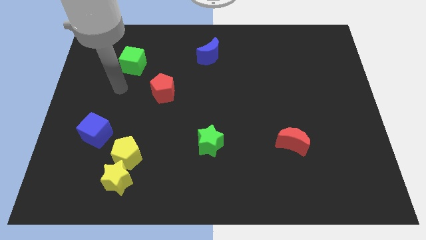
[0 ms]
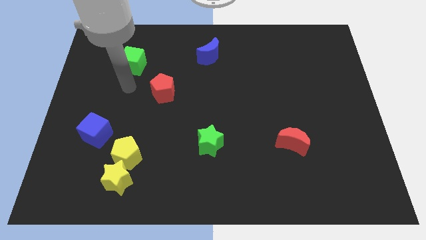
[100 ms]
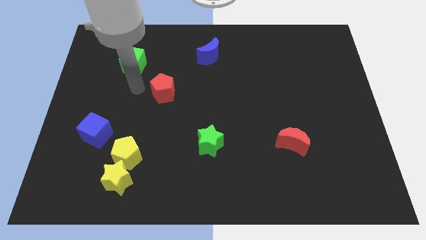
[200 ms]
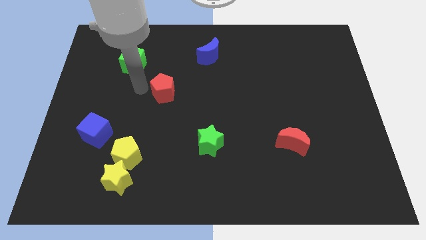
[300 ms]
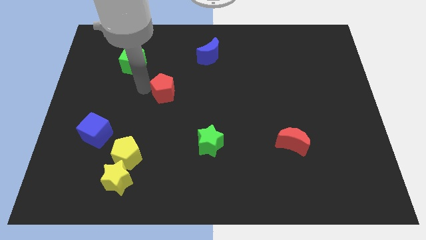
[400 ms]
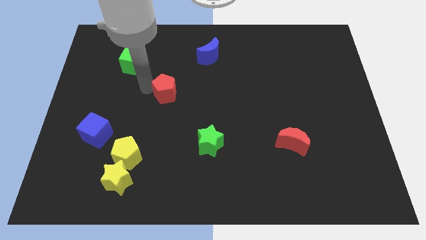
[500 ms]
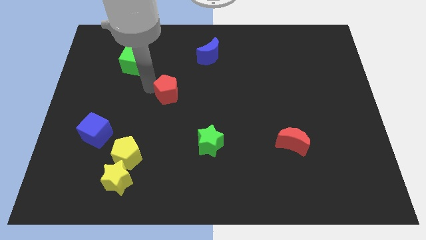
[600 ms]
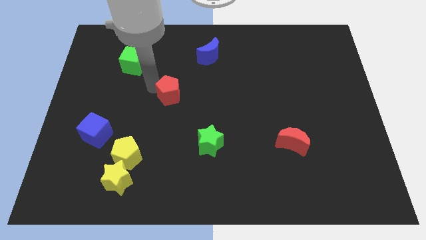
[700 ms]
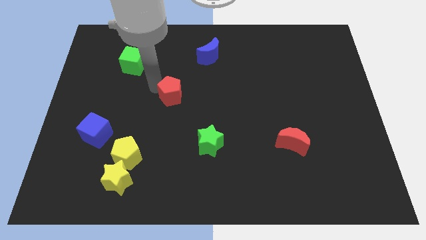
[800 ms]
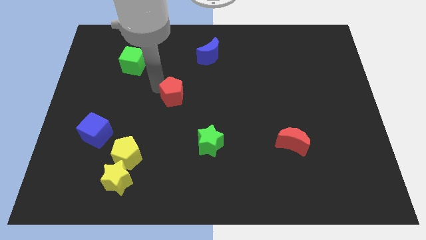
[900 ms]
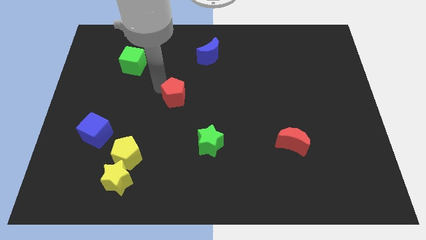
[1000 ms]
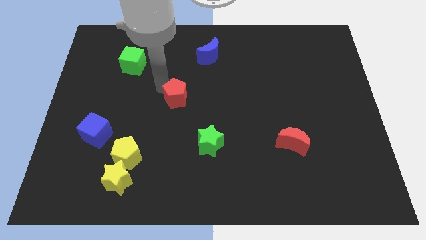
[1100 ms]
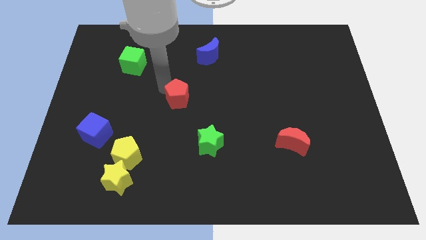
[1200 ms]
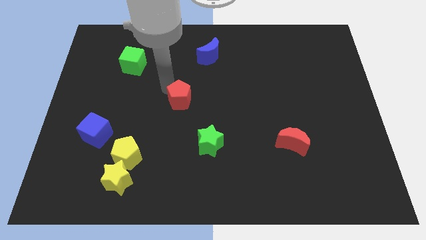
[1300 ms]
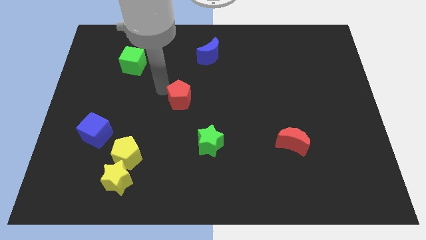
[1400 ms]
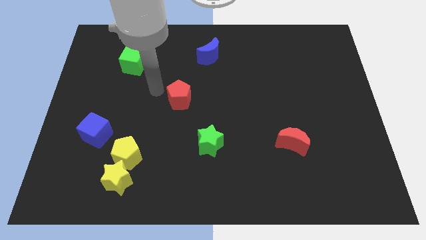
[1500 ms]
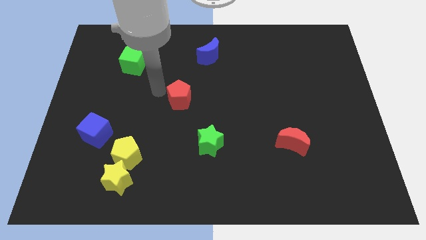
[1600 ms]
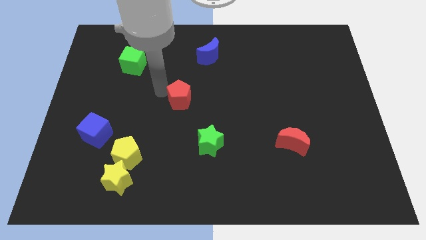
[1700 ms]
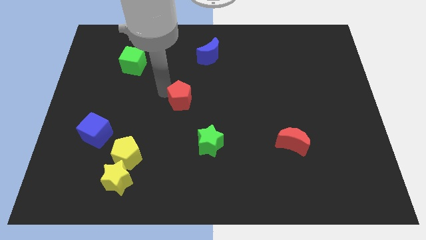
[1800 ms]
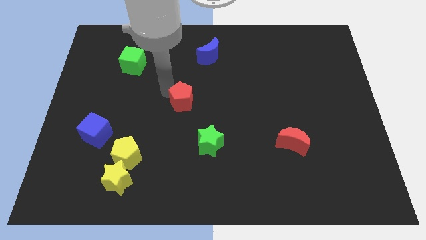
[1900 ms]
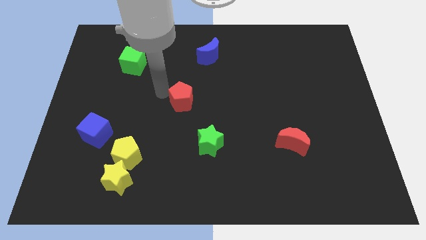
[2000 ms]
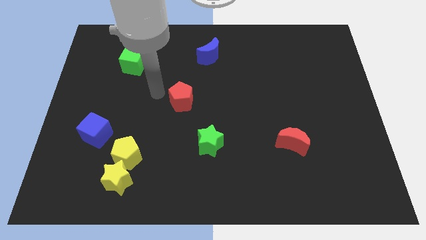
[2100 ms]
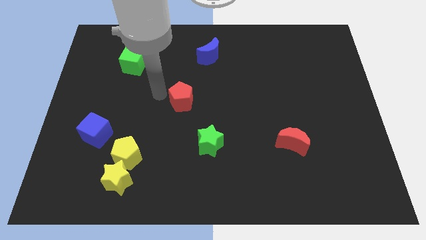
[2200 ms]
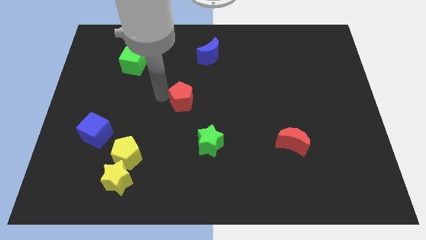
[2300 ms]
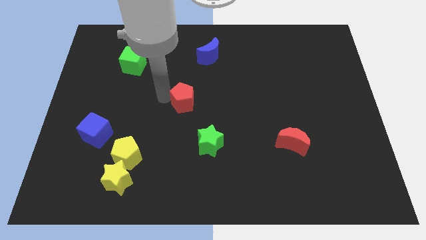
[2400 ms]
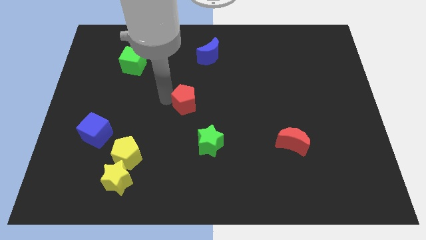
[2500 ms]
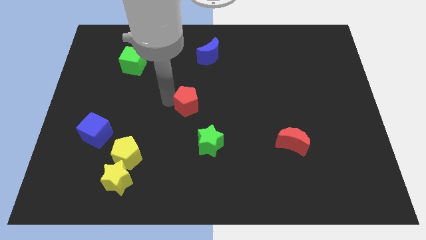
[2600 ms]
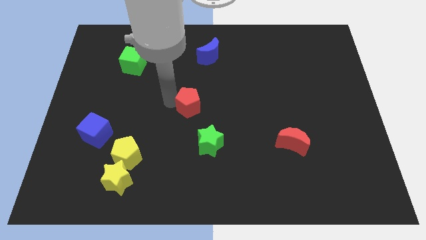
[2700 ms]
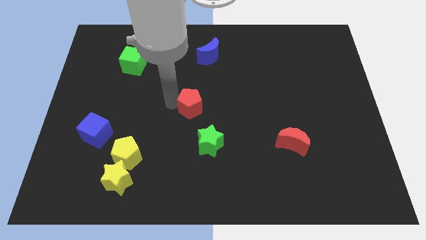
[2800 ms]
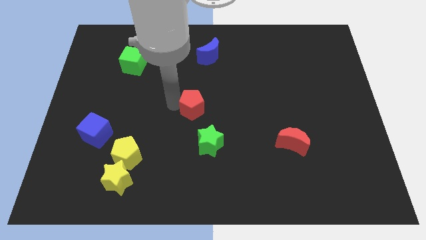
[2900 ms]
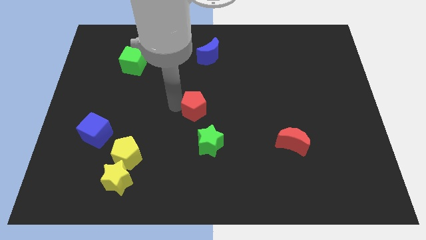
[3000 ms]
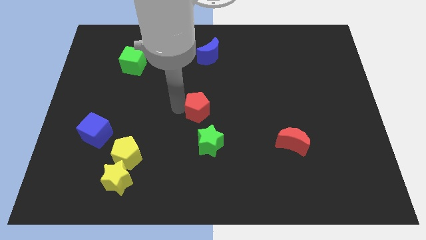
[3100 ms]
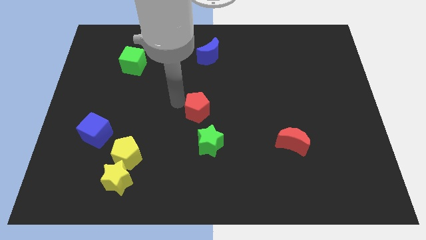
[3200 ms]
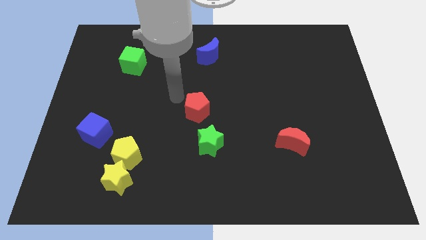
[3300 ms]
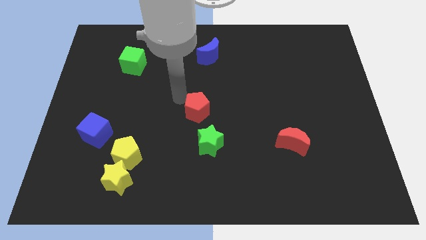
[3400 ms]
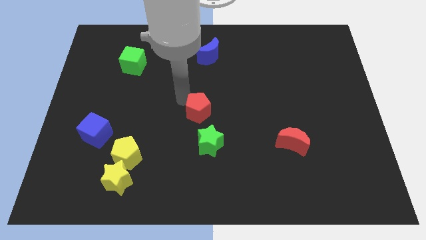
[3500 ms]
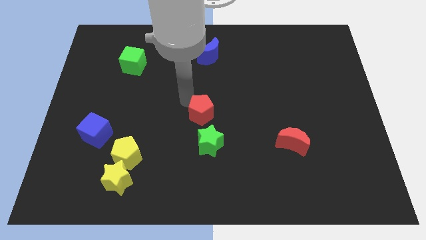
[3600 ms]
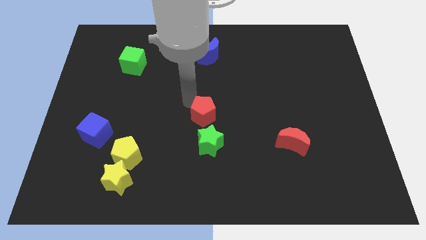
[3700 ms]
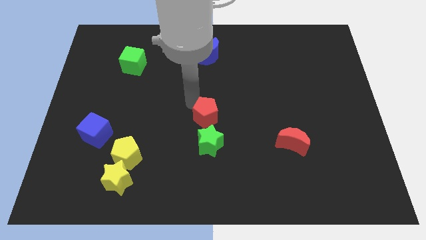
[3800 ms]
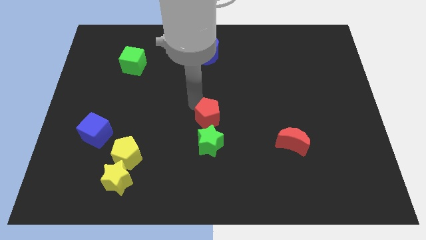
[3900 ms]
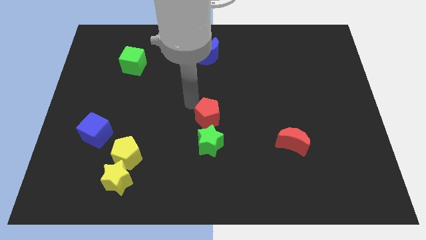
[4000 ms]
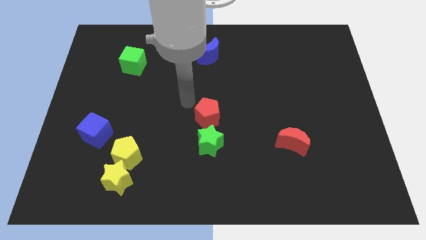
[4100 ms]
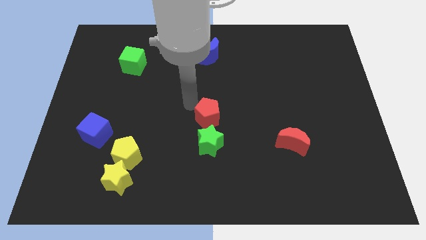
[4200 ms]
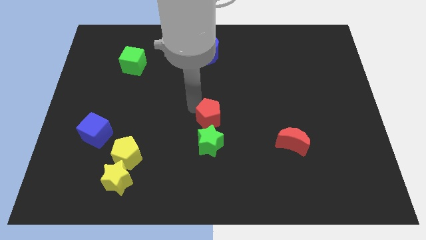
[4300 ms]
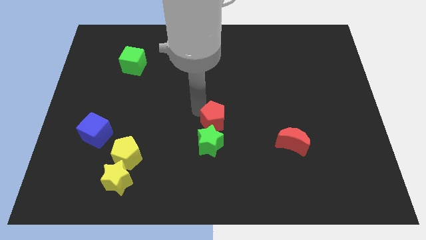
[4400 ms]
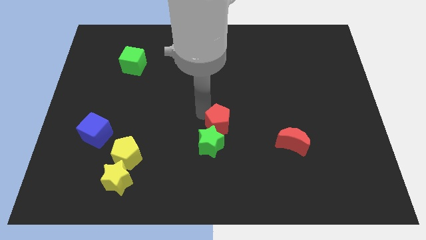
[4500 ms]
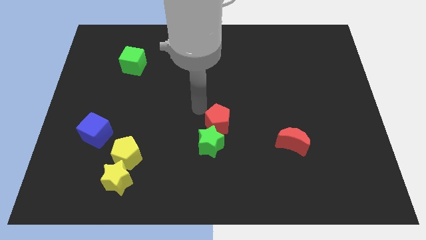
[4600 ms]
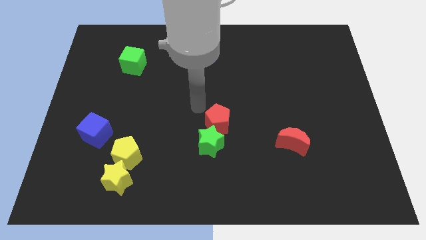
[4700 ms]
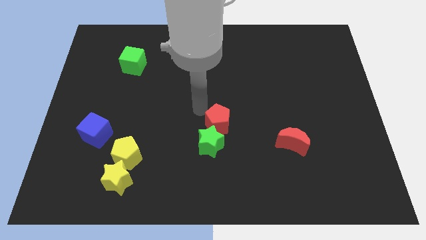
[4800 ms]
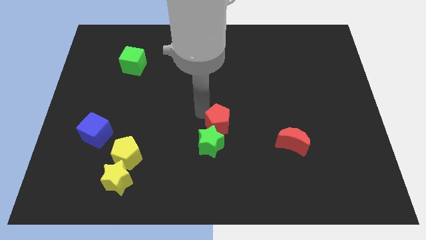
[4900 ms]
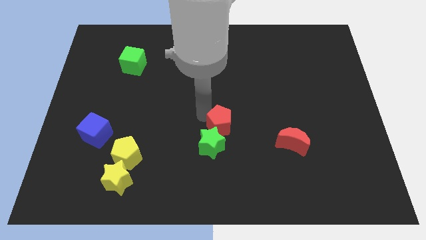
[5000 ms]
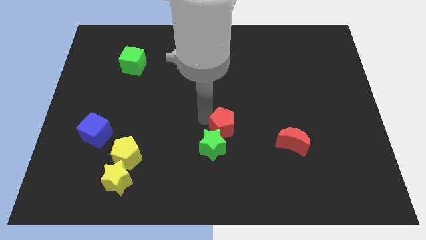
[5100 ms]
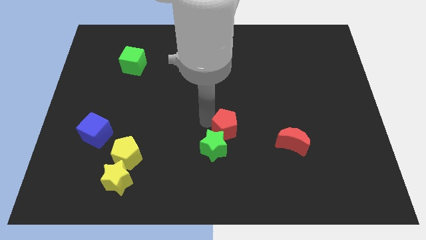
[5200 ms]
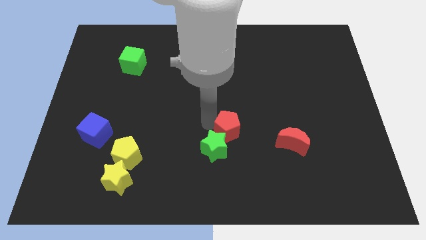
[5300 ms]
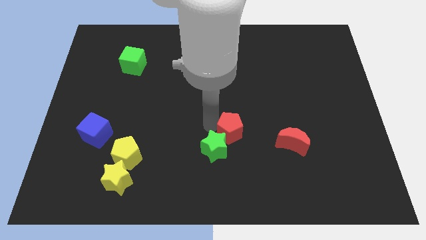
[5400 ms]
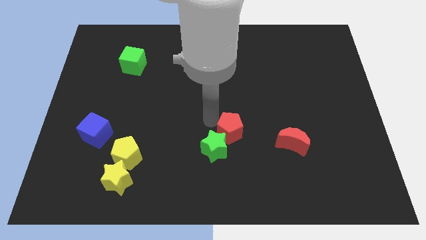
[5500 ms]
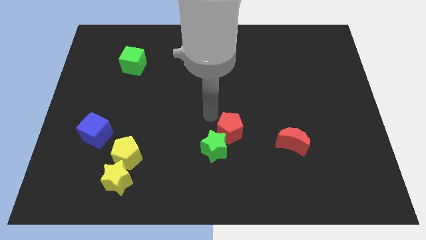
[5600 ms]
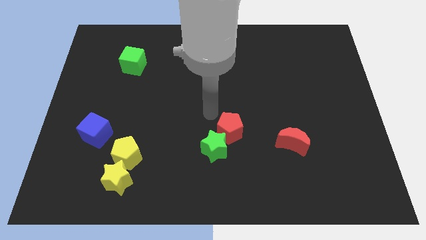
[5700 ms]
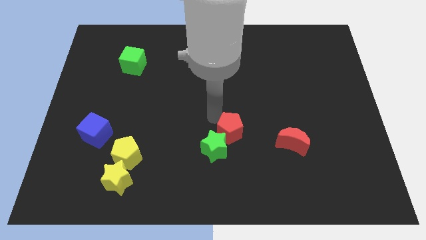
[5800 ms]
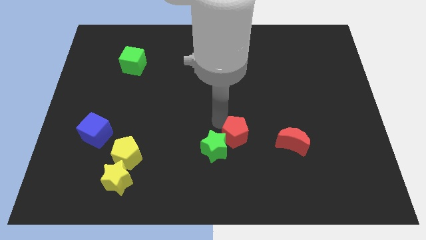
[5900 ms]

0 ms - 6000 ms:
move the red pentagon downwards and then to the right

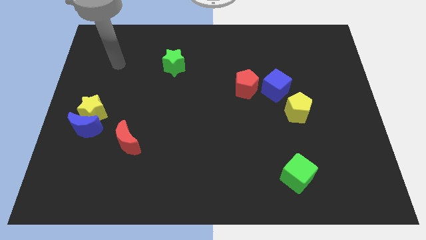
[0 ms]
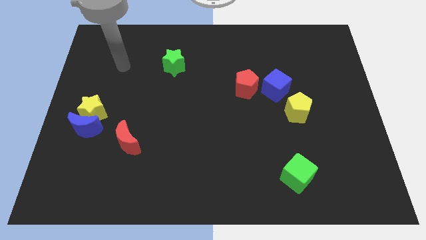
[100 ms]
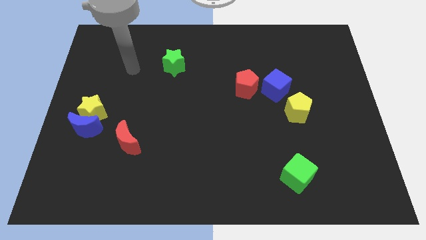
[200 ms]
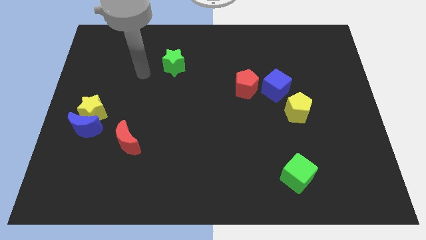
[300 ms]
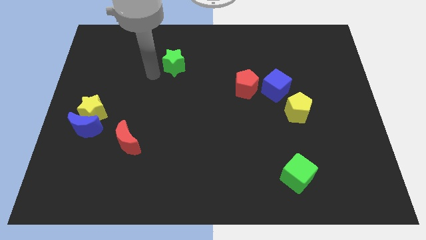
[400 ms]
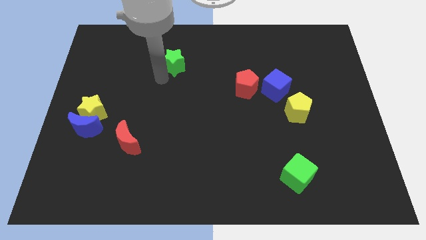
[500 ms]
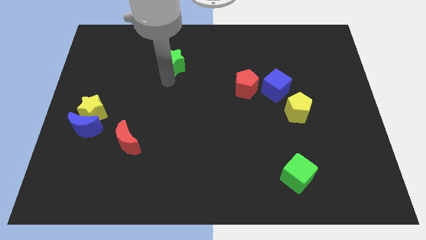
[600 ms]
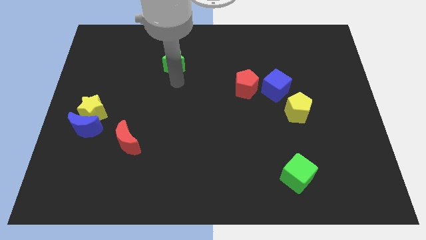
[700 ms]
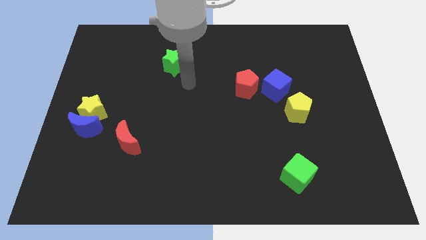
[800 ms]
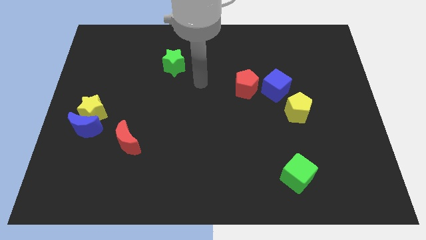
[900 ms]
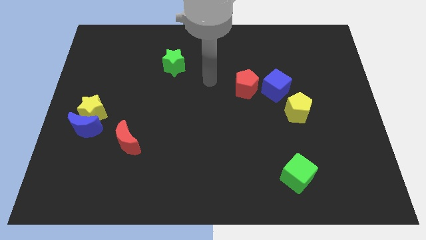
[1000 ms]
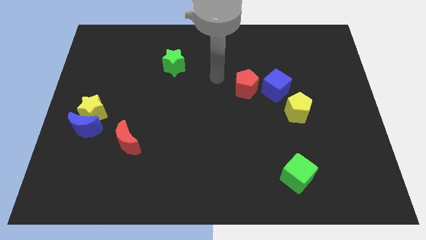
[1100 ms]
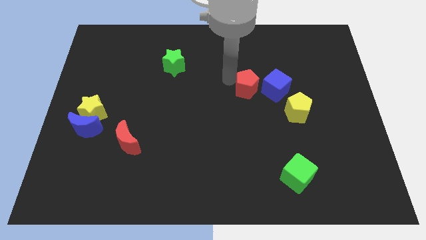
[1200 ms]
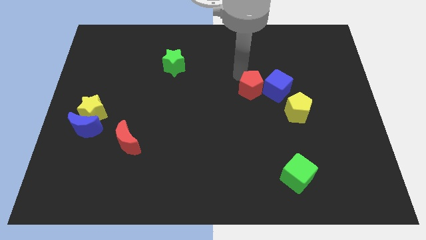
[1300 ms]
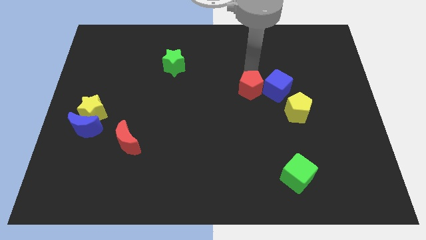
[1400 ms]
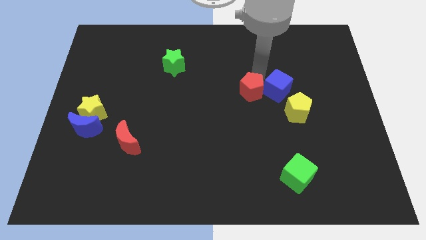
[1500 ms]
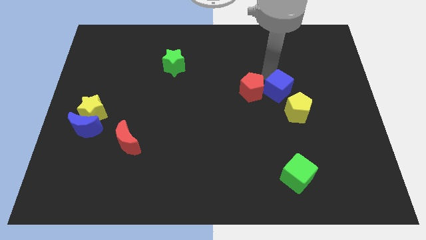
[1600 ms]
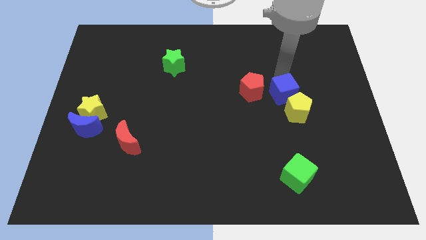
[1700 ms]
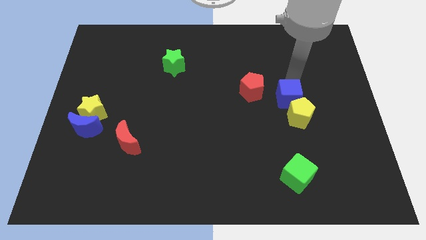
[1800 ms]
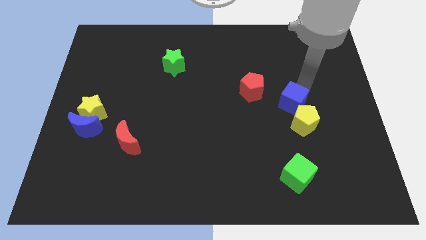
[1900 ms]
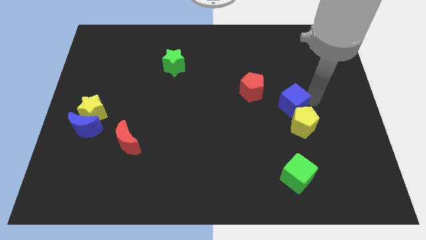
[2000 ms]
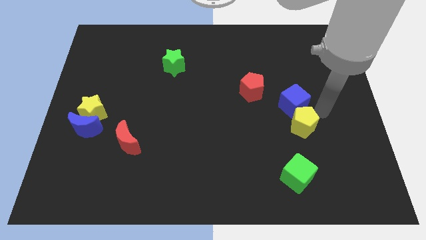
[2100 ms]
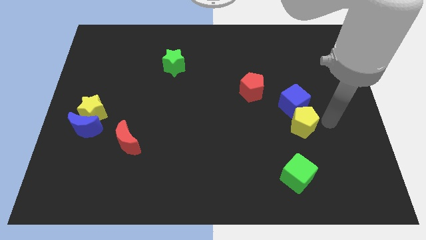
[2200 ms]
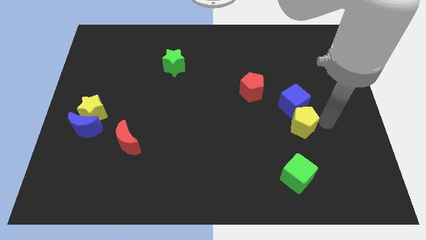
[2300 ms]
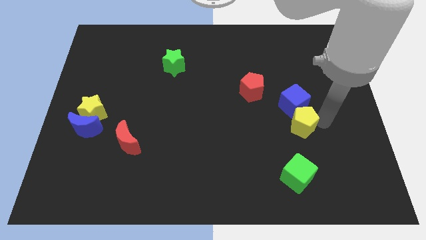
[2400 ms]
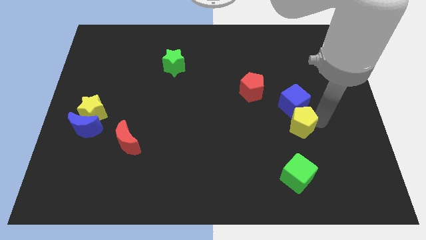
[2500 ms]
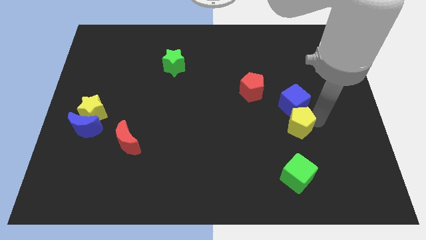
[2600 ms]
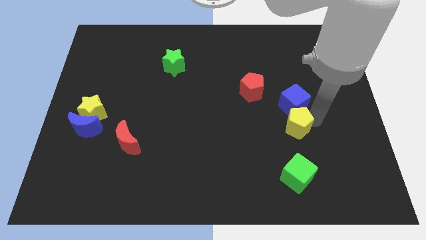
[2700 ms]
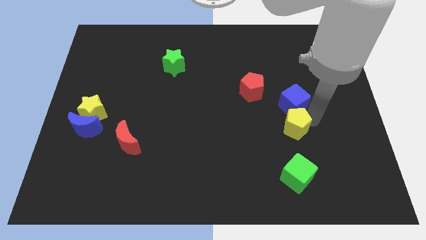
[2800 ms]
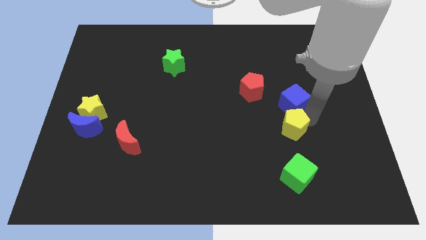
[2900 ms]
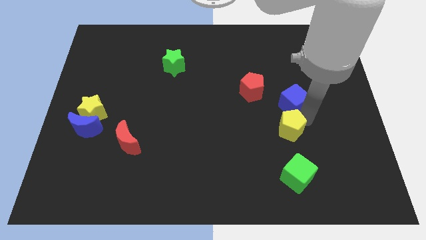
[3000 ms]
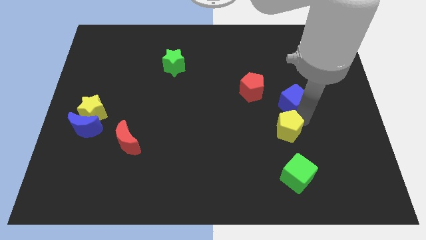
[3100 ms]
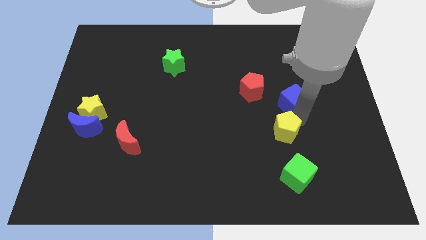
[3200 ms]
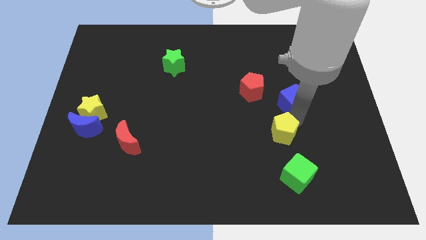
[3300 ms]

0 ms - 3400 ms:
slightly push the yellow pentagon downwards and then left
